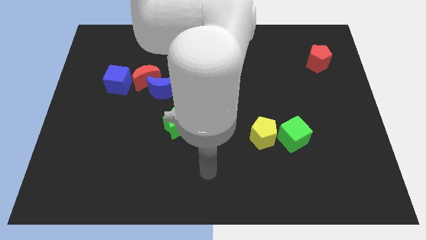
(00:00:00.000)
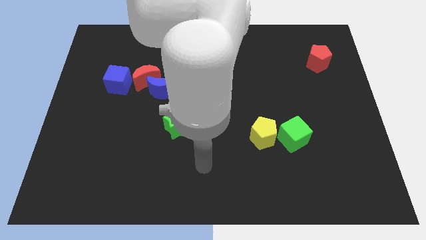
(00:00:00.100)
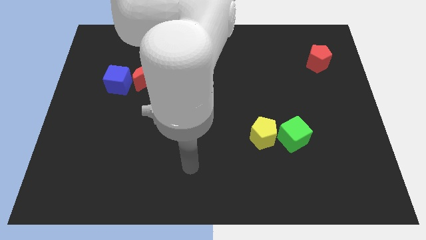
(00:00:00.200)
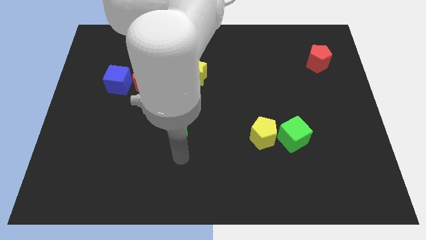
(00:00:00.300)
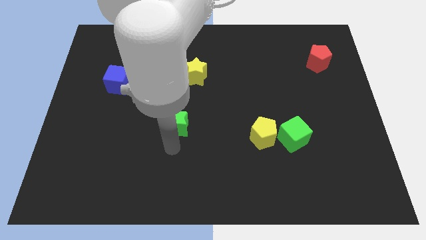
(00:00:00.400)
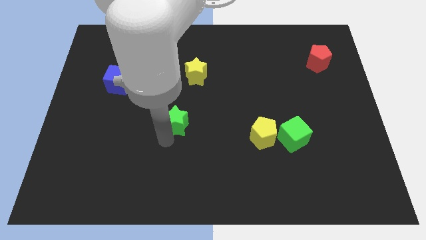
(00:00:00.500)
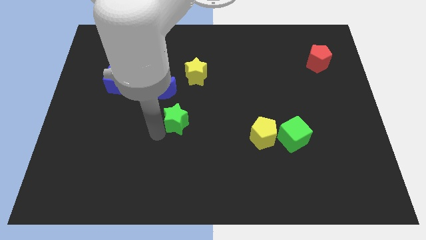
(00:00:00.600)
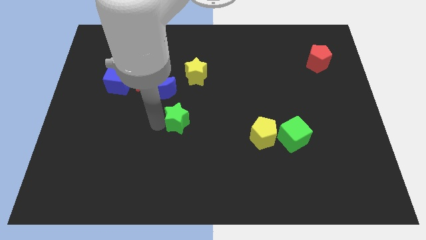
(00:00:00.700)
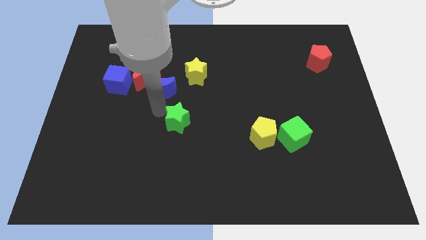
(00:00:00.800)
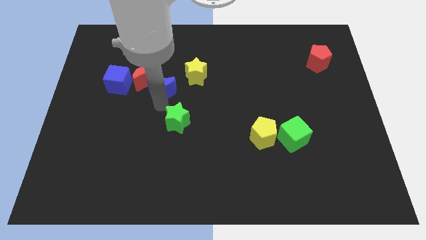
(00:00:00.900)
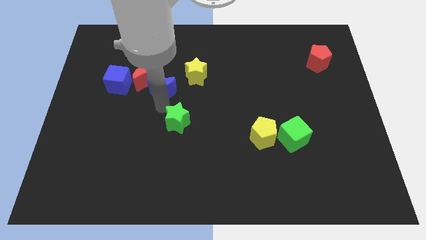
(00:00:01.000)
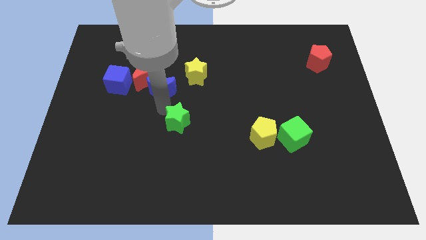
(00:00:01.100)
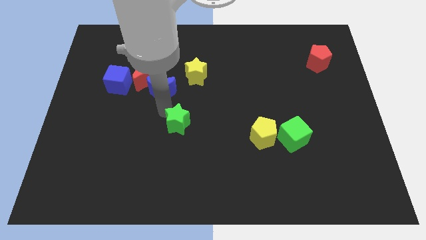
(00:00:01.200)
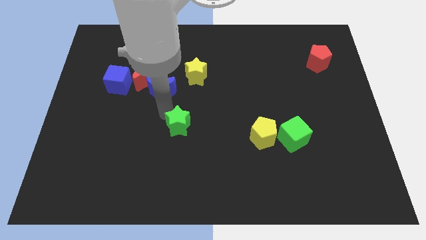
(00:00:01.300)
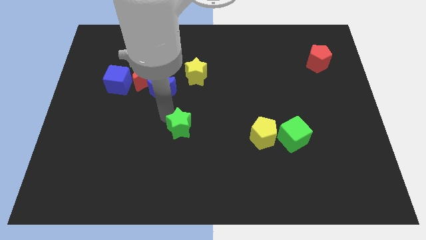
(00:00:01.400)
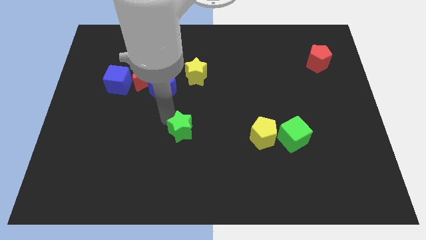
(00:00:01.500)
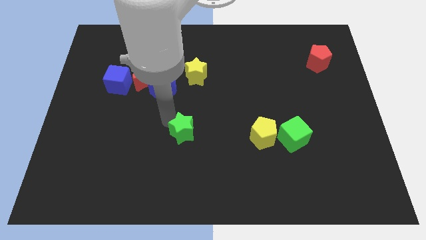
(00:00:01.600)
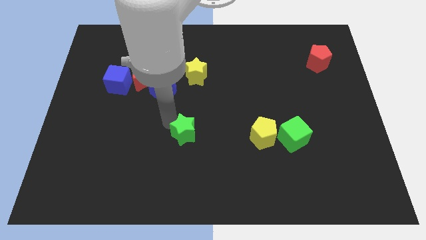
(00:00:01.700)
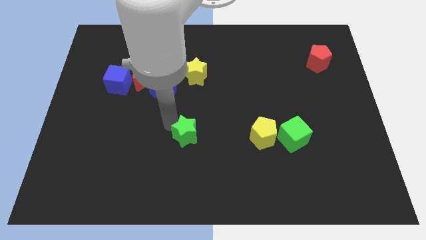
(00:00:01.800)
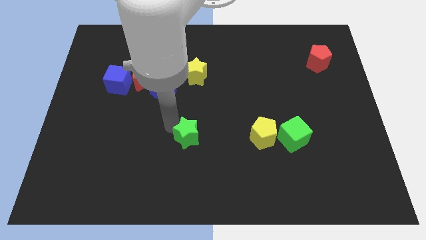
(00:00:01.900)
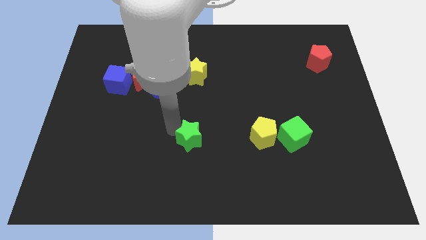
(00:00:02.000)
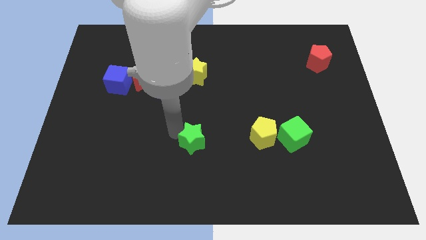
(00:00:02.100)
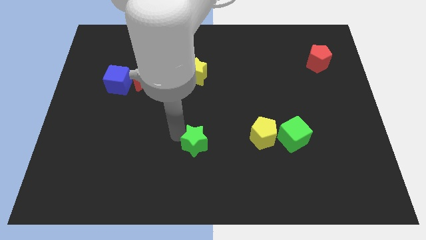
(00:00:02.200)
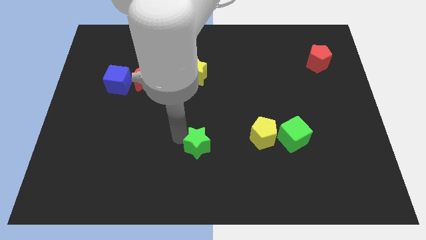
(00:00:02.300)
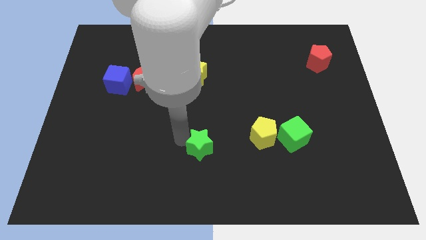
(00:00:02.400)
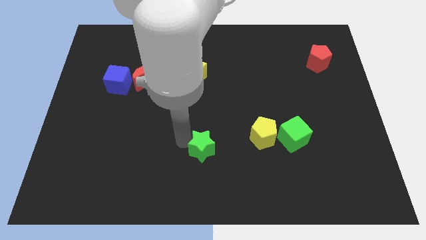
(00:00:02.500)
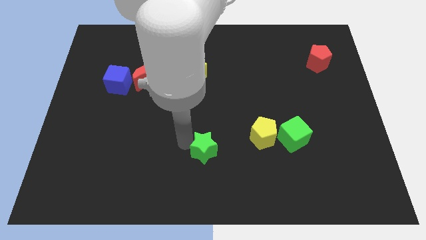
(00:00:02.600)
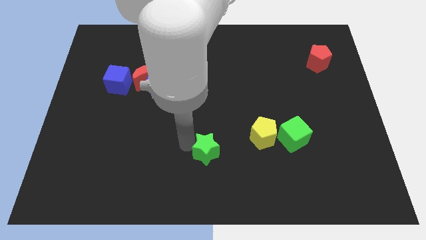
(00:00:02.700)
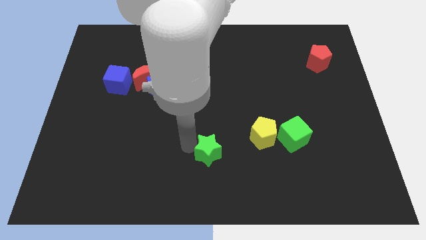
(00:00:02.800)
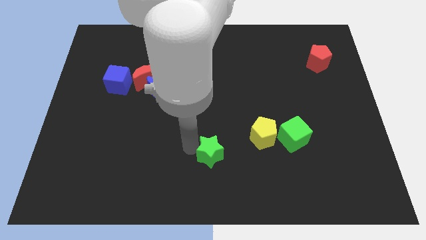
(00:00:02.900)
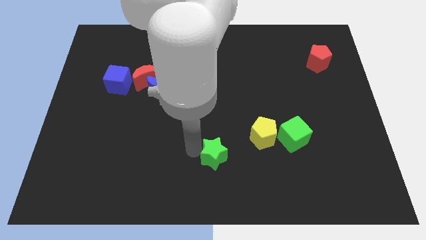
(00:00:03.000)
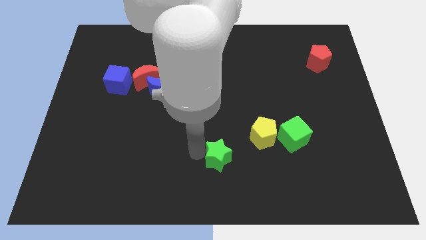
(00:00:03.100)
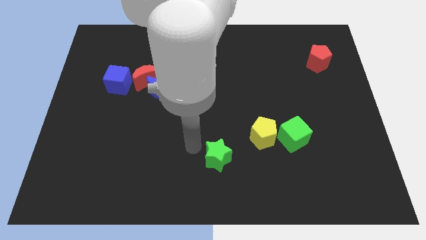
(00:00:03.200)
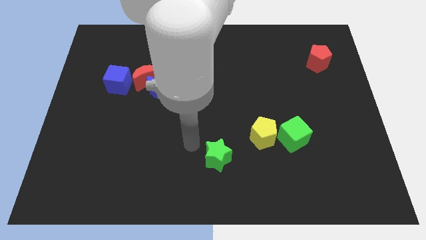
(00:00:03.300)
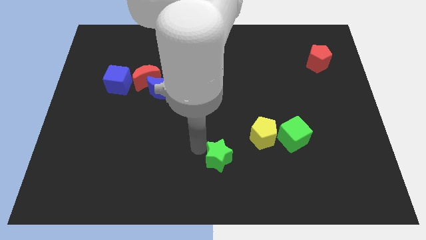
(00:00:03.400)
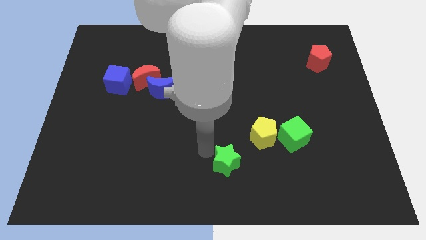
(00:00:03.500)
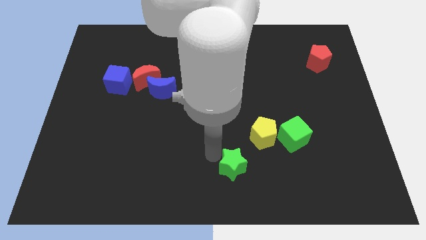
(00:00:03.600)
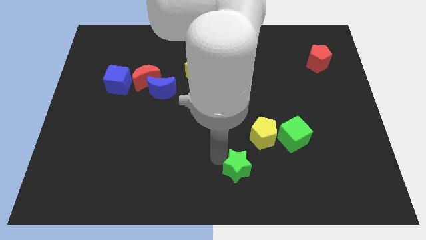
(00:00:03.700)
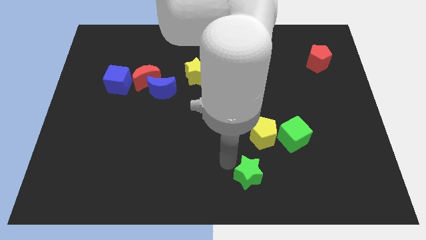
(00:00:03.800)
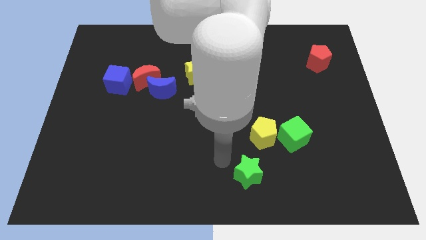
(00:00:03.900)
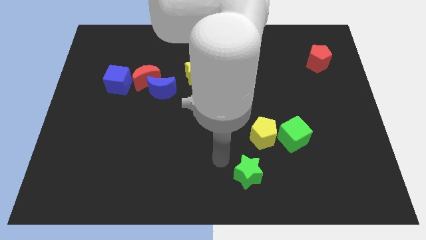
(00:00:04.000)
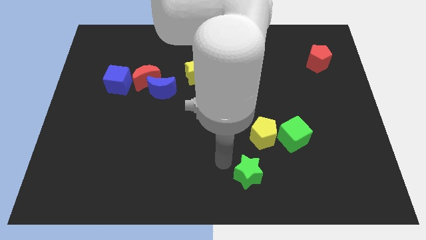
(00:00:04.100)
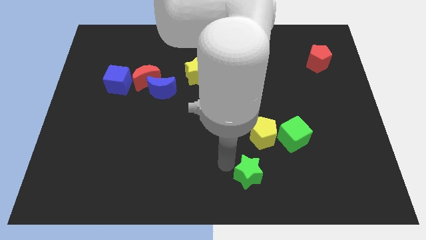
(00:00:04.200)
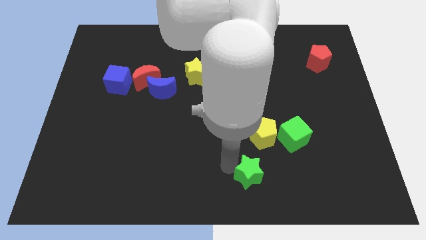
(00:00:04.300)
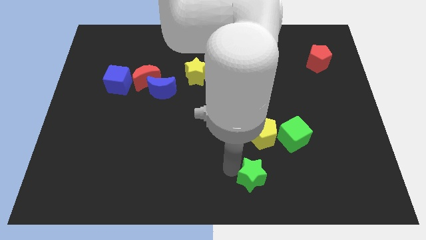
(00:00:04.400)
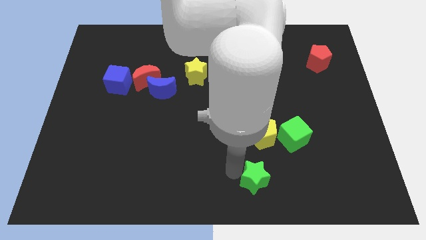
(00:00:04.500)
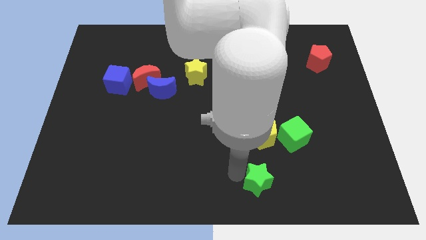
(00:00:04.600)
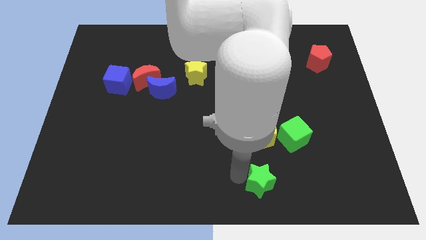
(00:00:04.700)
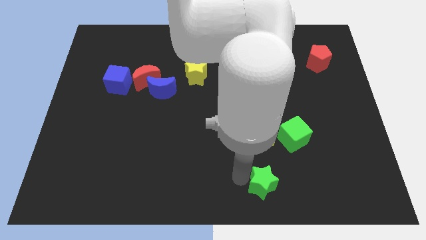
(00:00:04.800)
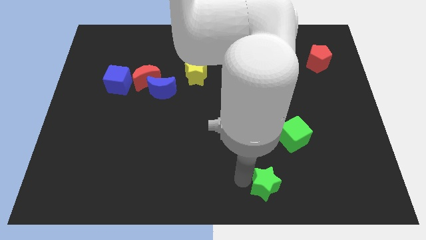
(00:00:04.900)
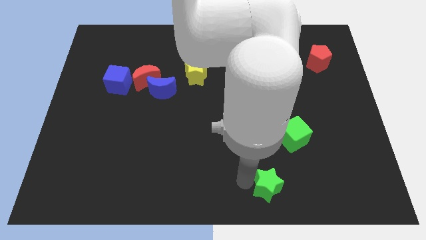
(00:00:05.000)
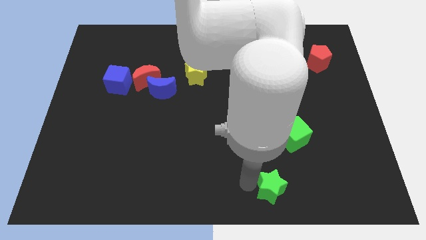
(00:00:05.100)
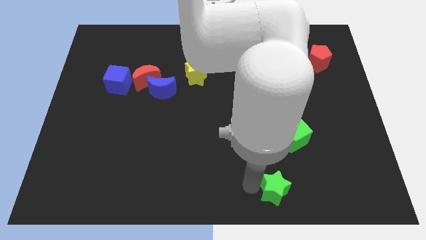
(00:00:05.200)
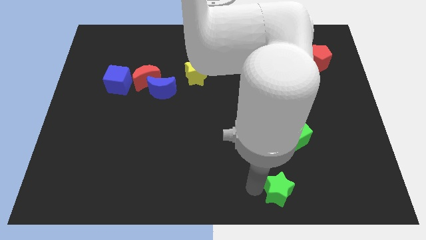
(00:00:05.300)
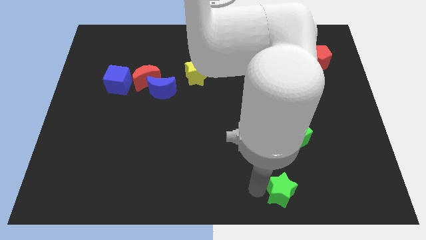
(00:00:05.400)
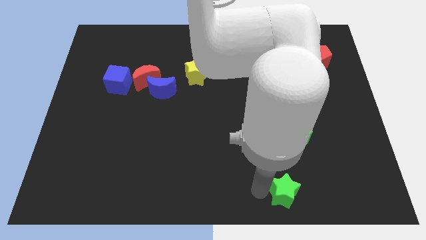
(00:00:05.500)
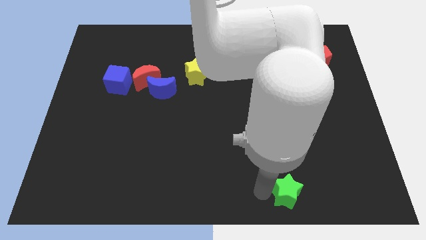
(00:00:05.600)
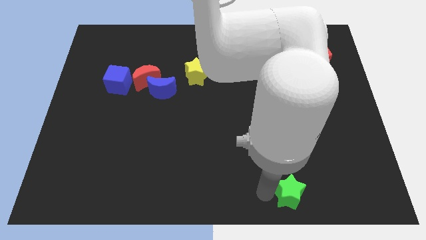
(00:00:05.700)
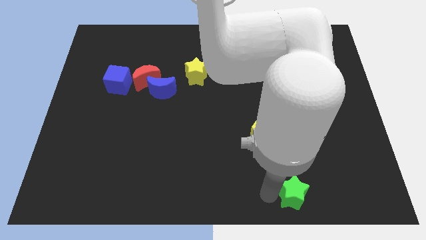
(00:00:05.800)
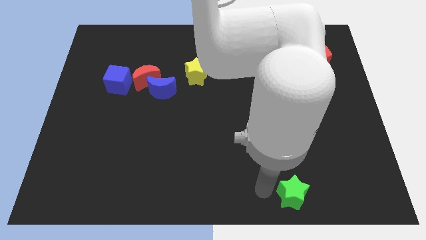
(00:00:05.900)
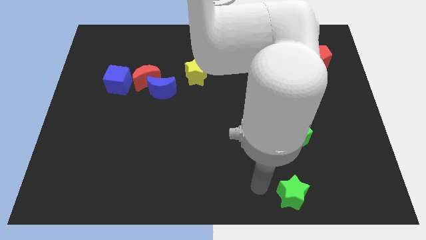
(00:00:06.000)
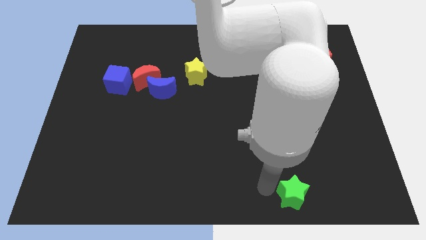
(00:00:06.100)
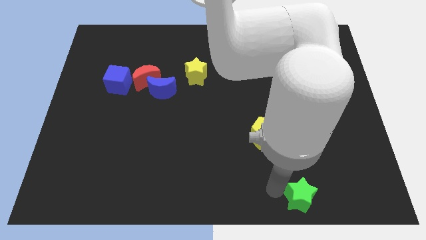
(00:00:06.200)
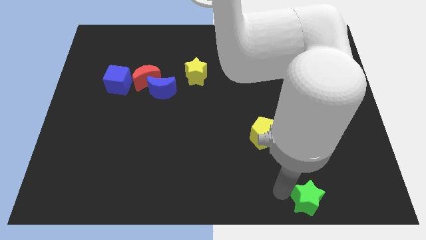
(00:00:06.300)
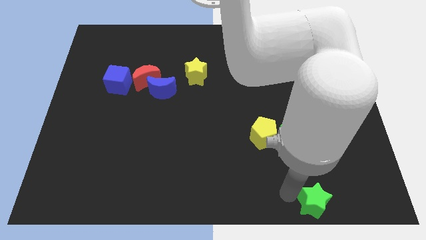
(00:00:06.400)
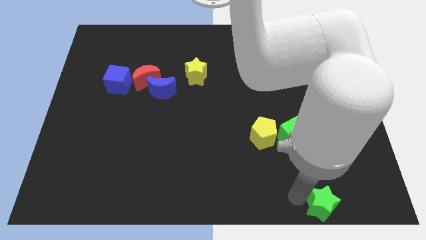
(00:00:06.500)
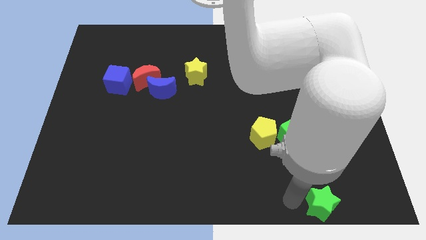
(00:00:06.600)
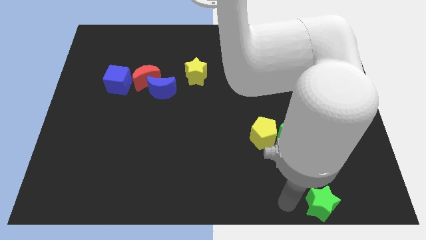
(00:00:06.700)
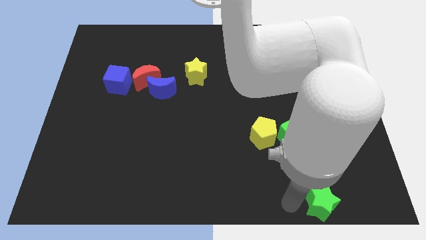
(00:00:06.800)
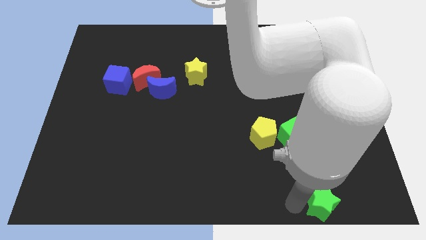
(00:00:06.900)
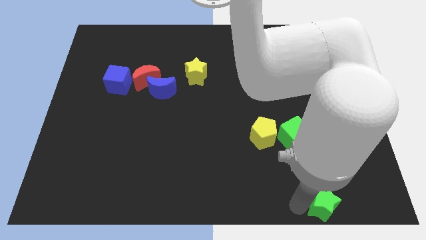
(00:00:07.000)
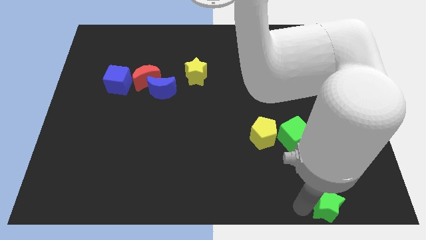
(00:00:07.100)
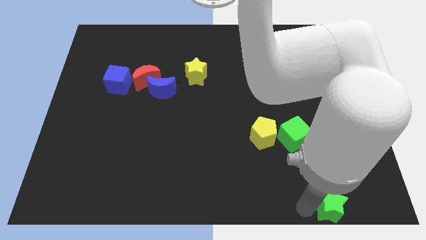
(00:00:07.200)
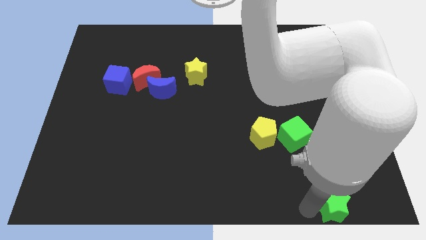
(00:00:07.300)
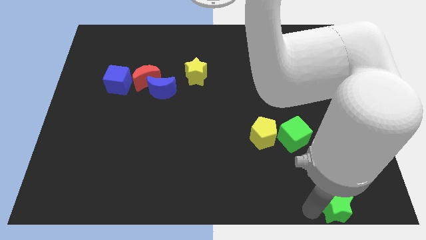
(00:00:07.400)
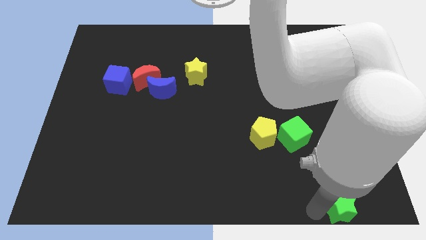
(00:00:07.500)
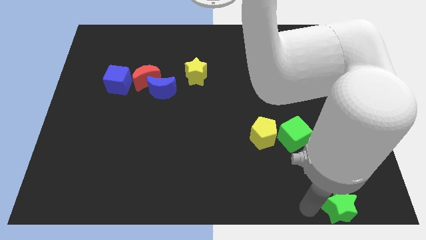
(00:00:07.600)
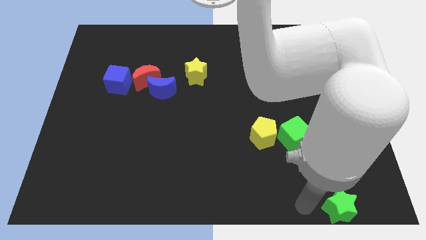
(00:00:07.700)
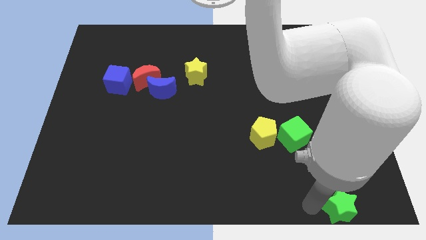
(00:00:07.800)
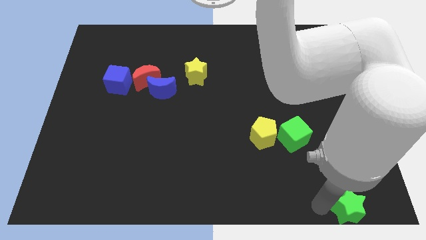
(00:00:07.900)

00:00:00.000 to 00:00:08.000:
slide the green star to the bottom right of the board
